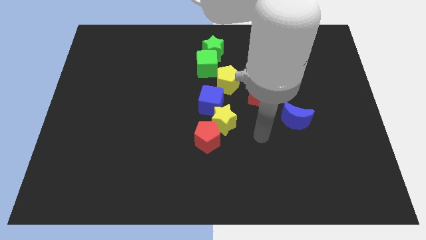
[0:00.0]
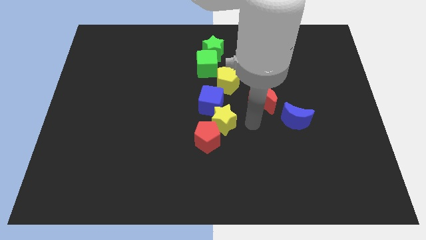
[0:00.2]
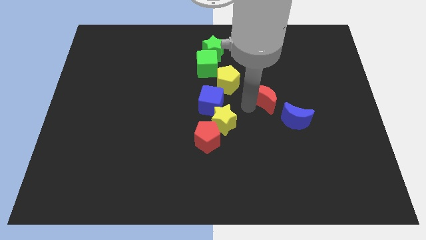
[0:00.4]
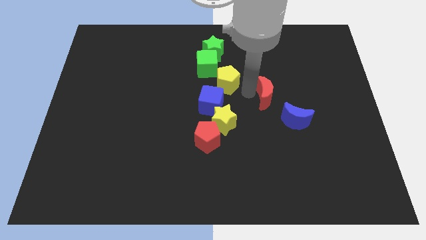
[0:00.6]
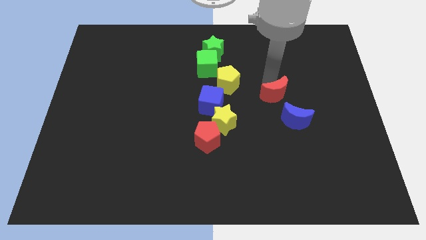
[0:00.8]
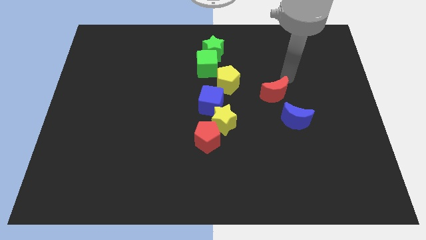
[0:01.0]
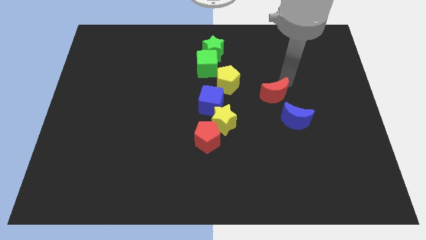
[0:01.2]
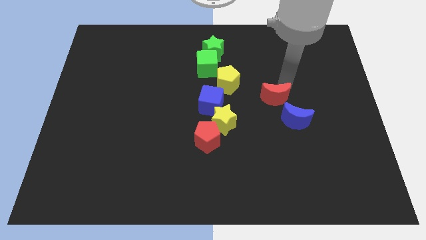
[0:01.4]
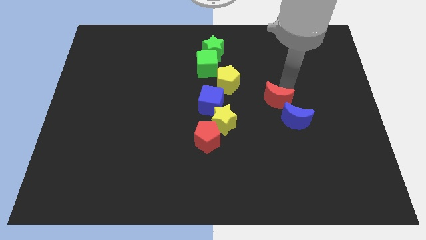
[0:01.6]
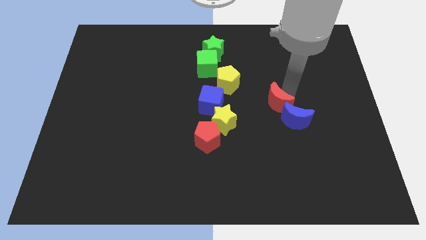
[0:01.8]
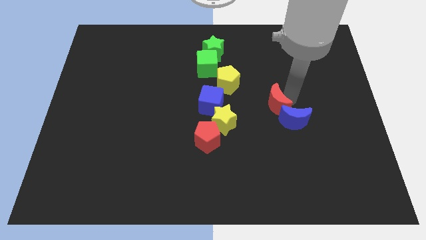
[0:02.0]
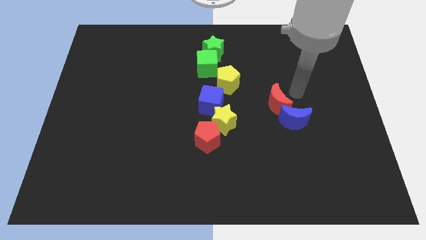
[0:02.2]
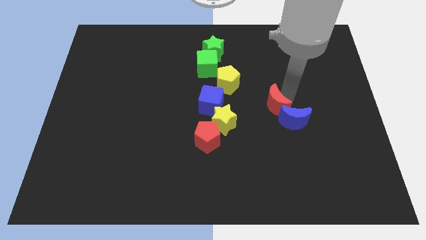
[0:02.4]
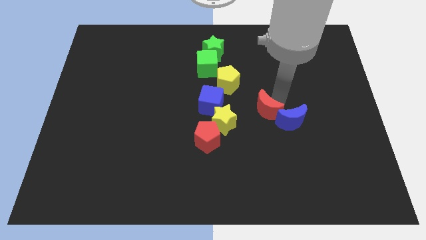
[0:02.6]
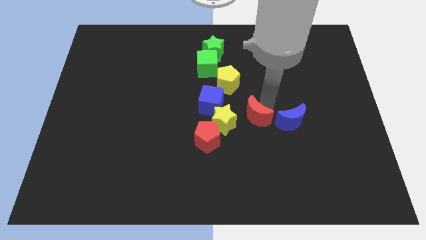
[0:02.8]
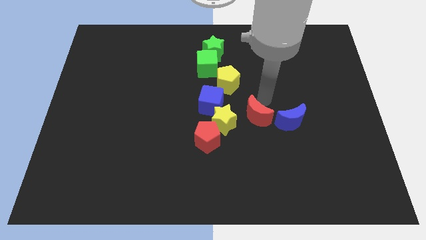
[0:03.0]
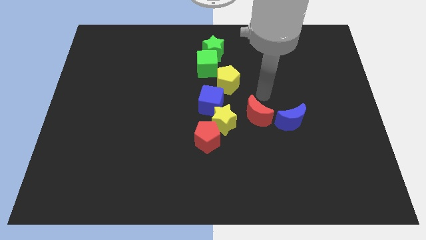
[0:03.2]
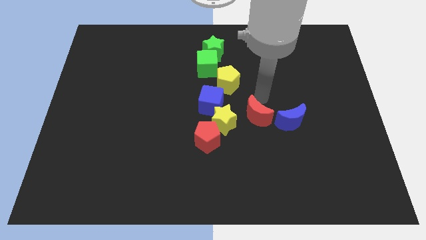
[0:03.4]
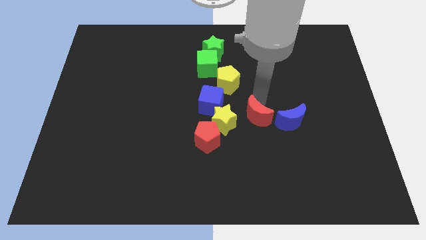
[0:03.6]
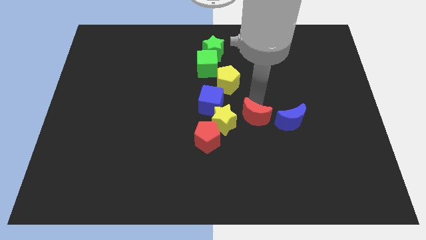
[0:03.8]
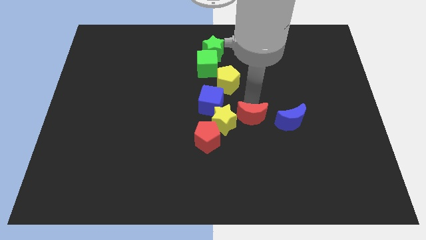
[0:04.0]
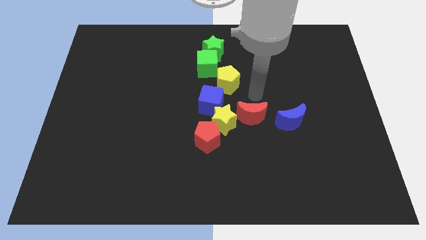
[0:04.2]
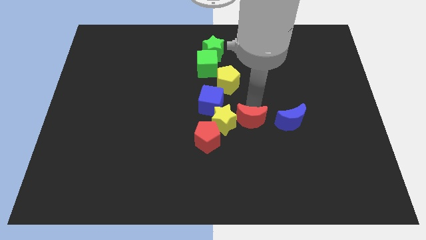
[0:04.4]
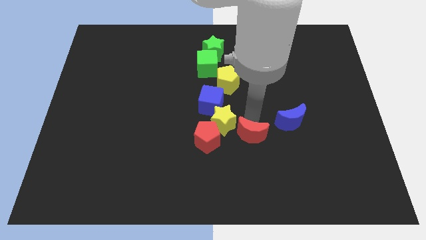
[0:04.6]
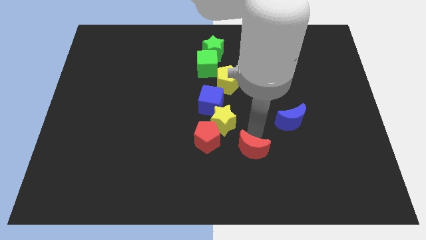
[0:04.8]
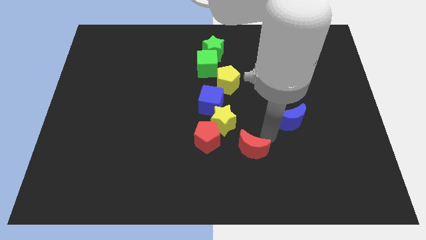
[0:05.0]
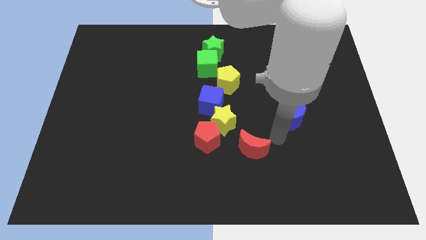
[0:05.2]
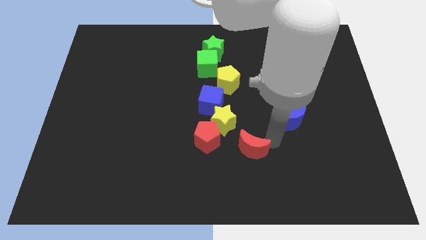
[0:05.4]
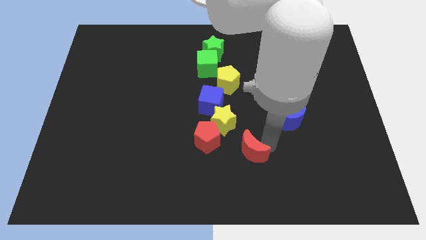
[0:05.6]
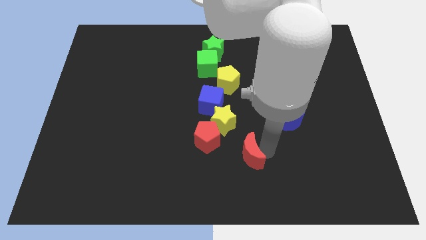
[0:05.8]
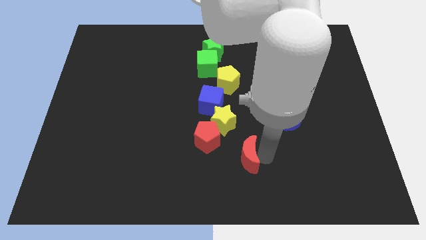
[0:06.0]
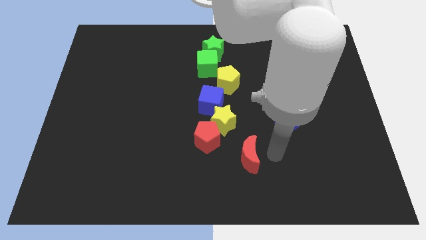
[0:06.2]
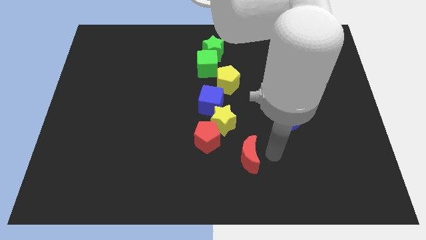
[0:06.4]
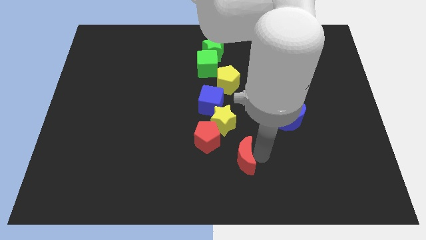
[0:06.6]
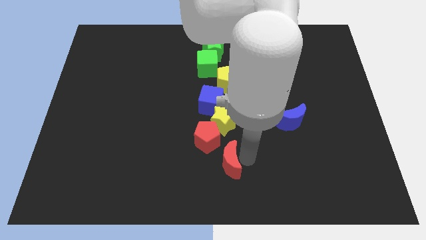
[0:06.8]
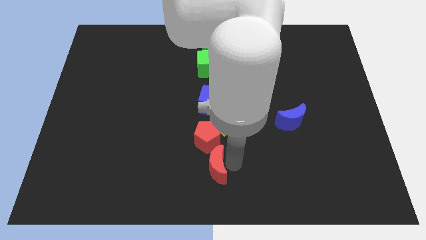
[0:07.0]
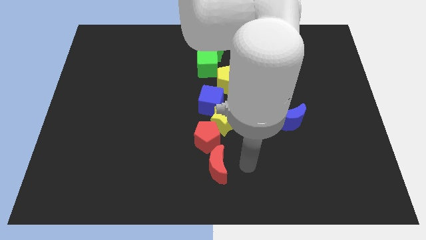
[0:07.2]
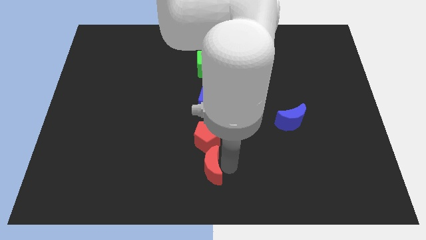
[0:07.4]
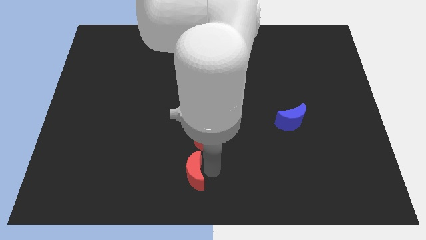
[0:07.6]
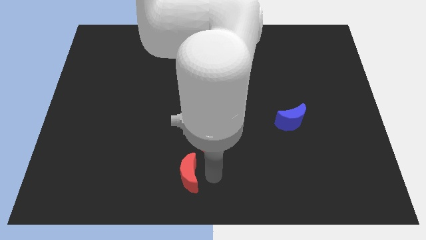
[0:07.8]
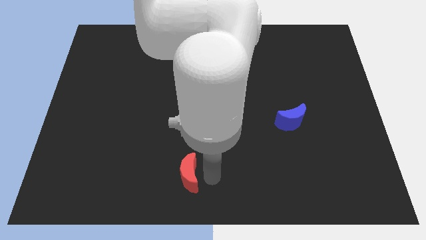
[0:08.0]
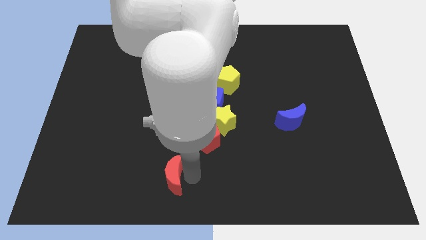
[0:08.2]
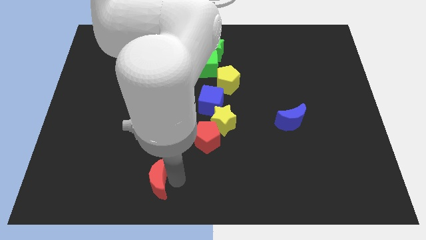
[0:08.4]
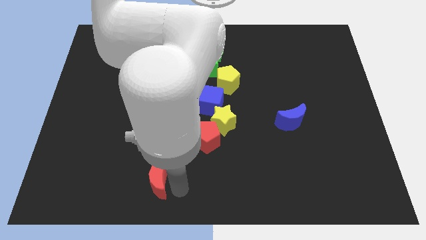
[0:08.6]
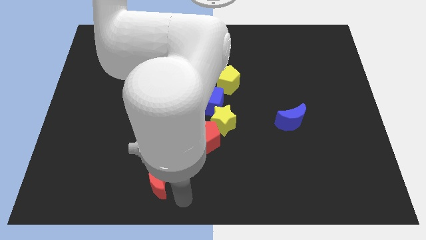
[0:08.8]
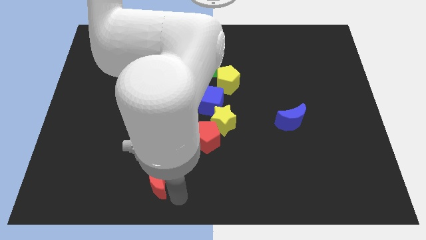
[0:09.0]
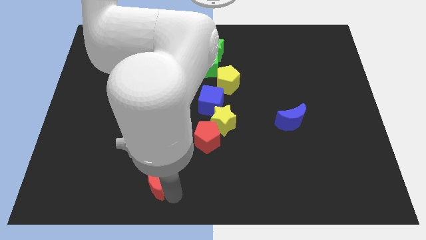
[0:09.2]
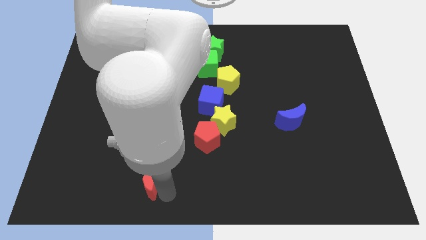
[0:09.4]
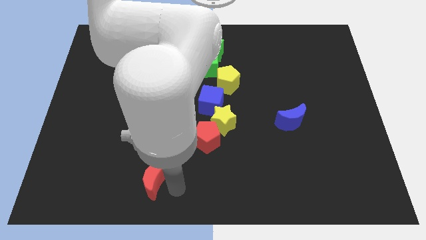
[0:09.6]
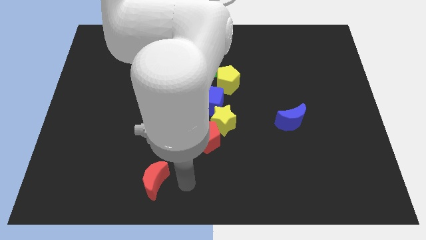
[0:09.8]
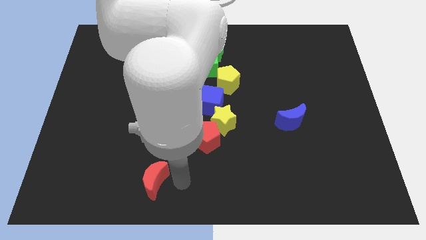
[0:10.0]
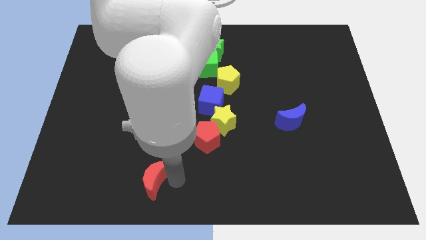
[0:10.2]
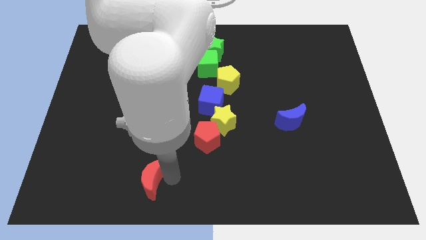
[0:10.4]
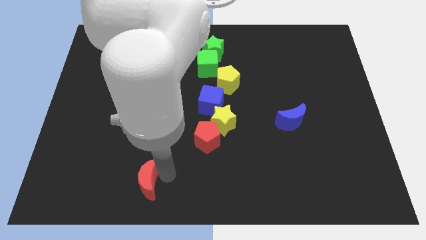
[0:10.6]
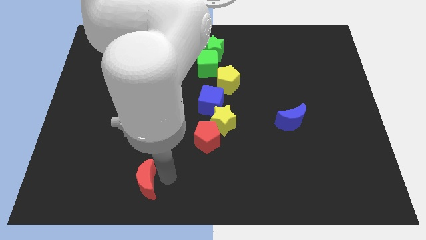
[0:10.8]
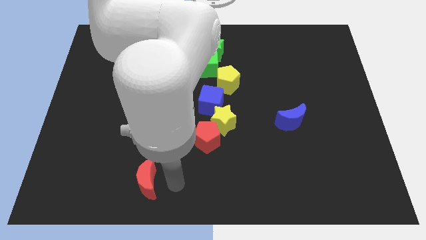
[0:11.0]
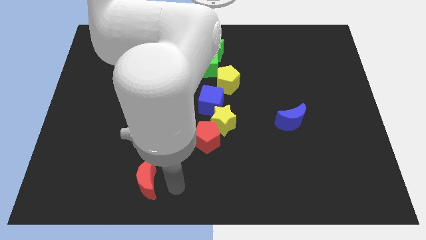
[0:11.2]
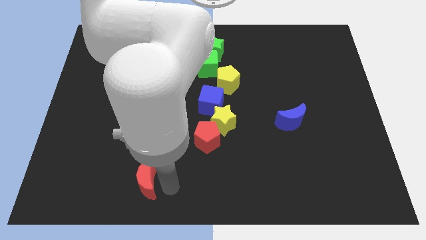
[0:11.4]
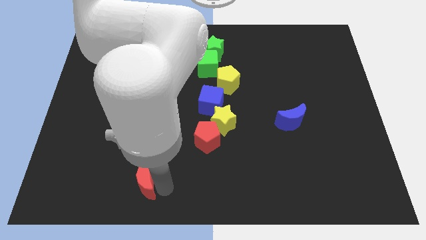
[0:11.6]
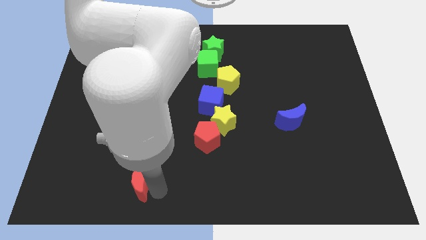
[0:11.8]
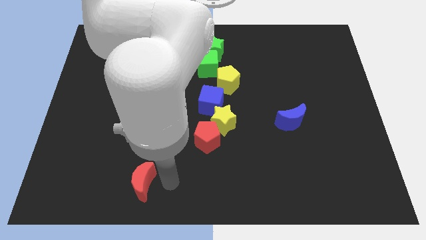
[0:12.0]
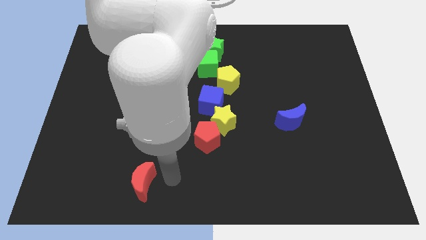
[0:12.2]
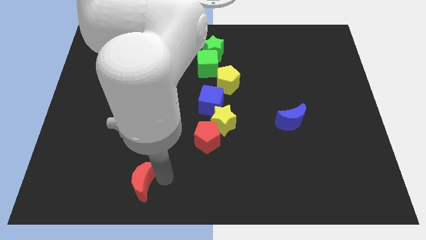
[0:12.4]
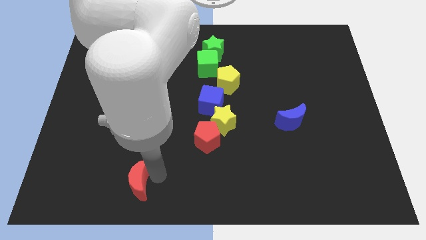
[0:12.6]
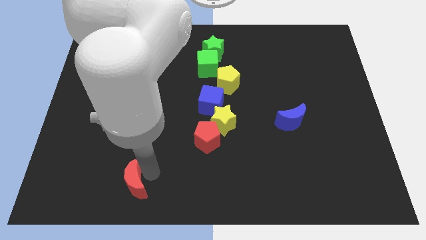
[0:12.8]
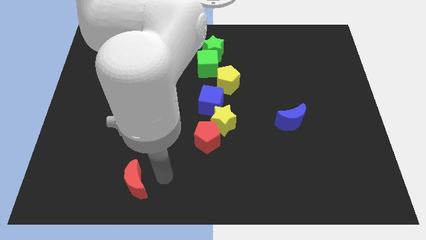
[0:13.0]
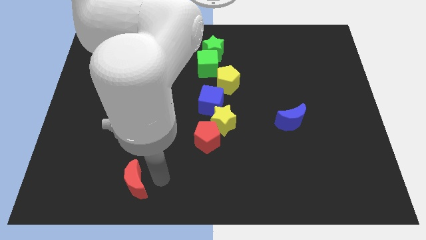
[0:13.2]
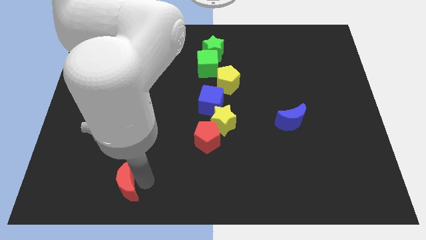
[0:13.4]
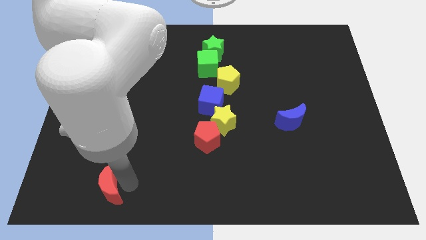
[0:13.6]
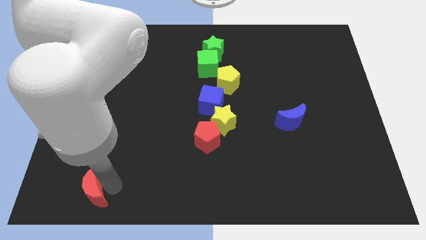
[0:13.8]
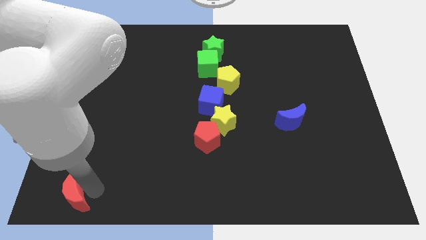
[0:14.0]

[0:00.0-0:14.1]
move the red moon to the lower left corner
